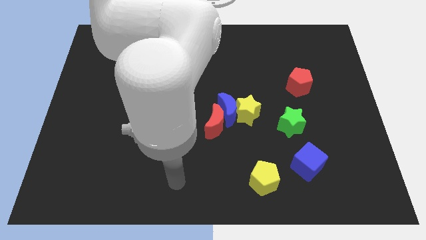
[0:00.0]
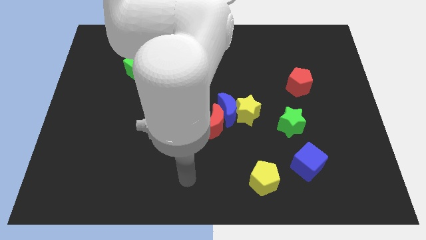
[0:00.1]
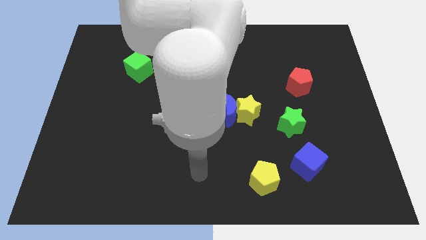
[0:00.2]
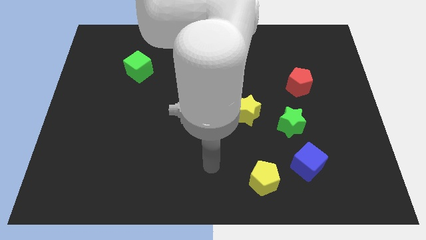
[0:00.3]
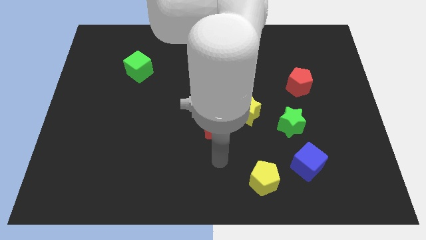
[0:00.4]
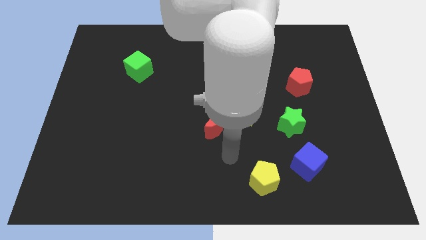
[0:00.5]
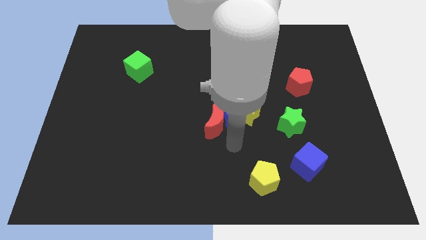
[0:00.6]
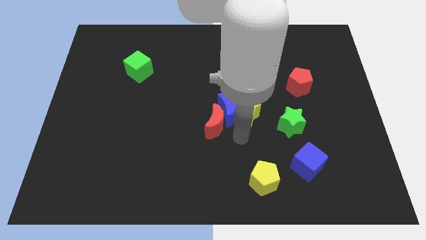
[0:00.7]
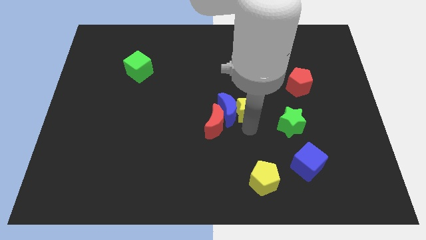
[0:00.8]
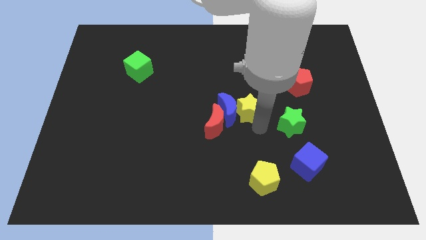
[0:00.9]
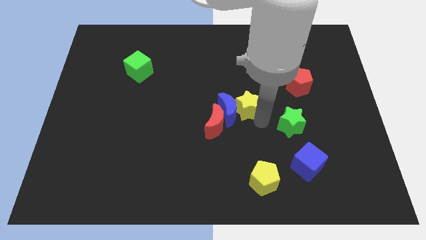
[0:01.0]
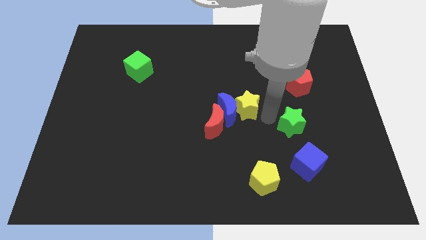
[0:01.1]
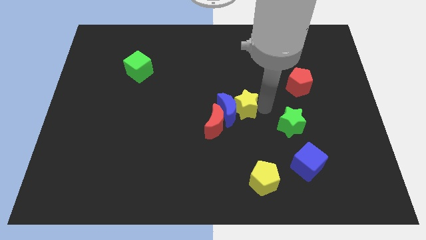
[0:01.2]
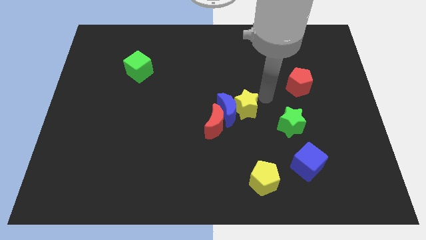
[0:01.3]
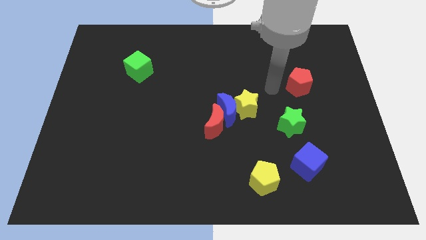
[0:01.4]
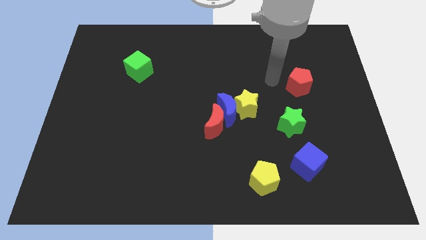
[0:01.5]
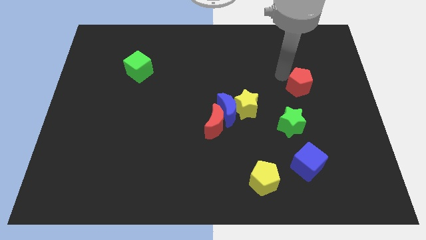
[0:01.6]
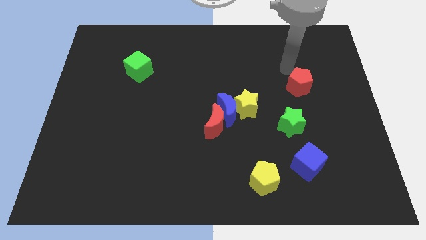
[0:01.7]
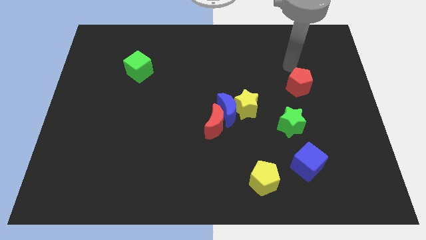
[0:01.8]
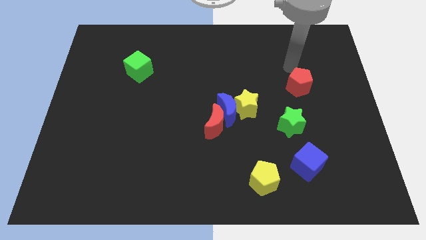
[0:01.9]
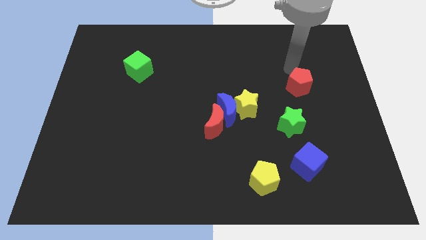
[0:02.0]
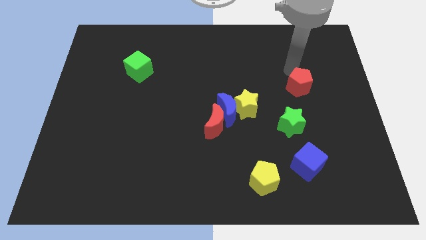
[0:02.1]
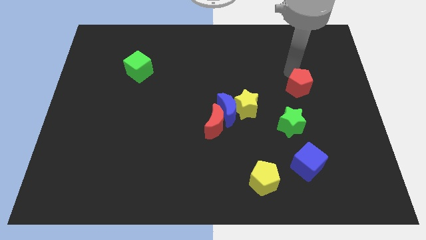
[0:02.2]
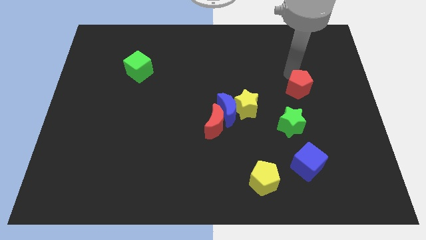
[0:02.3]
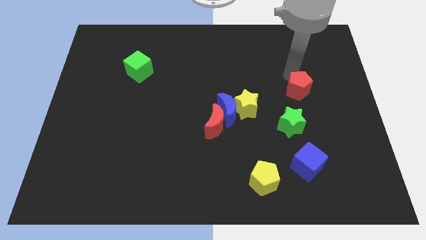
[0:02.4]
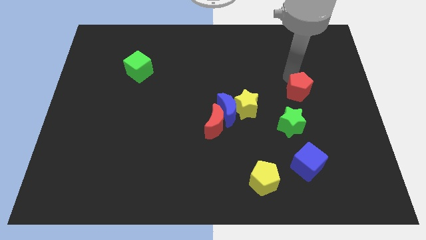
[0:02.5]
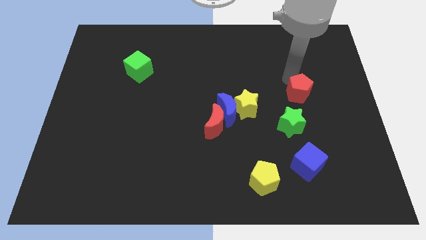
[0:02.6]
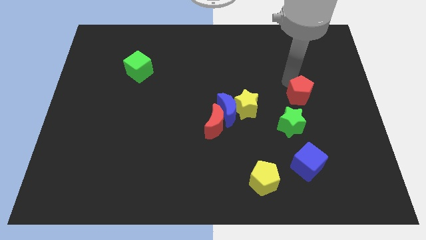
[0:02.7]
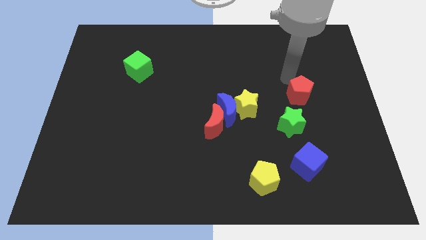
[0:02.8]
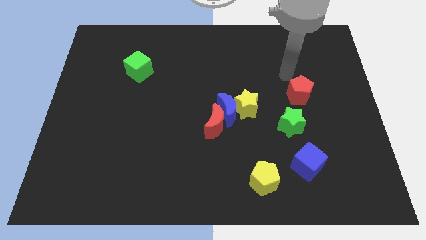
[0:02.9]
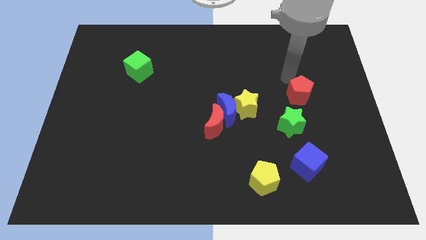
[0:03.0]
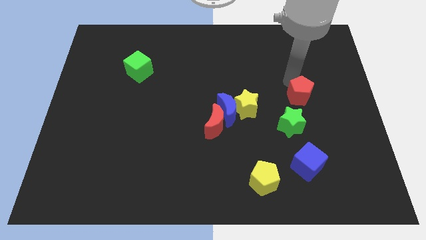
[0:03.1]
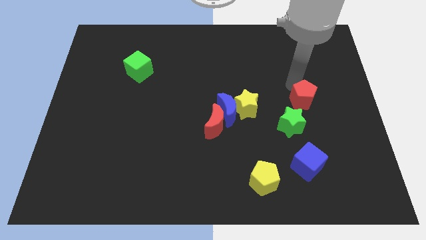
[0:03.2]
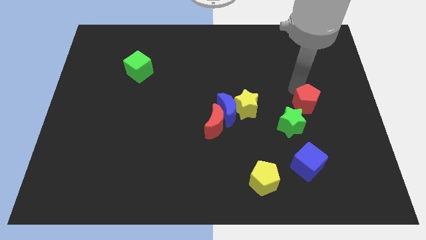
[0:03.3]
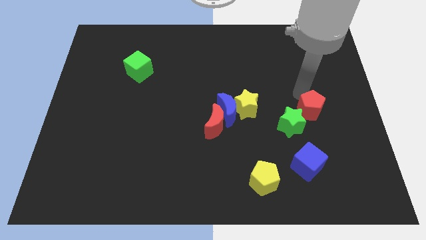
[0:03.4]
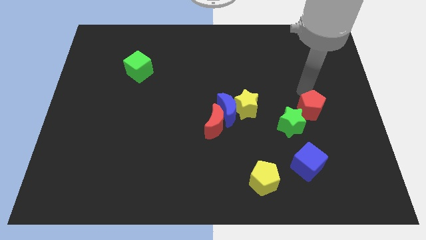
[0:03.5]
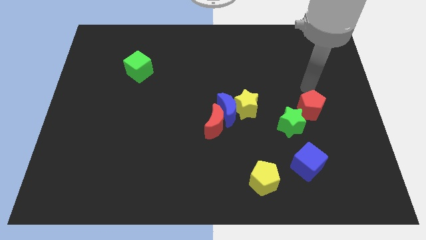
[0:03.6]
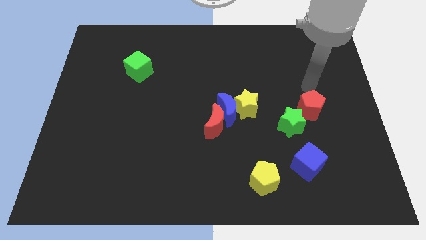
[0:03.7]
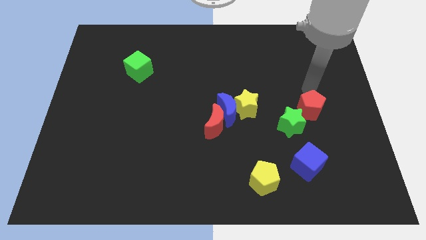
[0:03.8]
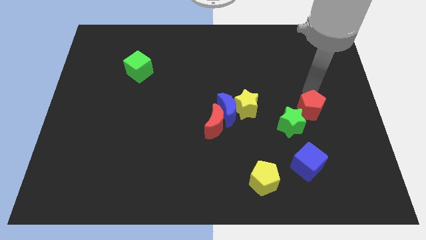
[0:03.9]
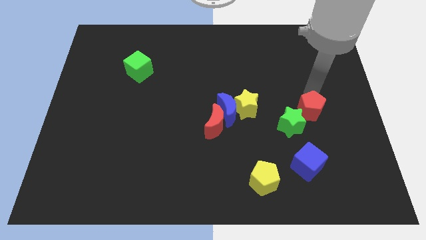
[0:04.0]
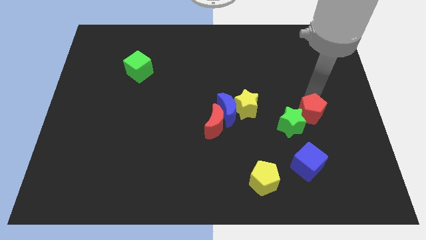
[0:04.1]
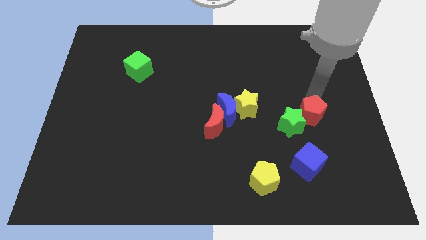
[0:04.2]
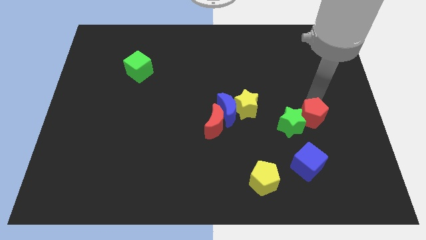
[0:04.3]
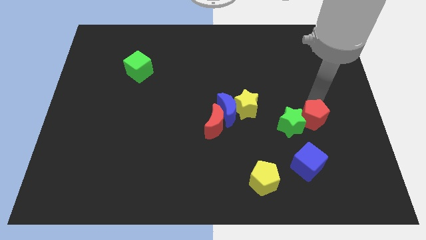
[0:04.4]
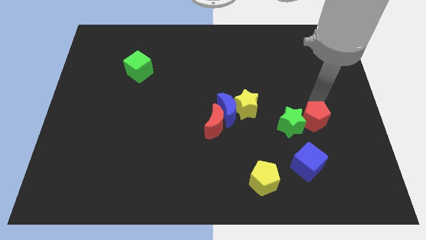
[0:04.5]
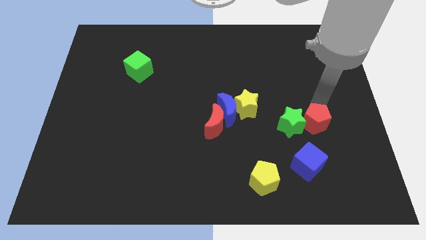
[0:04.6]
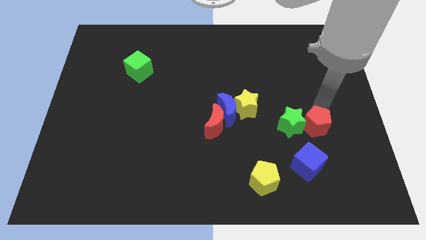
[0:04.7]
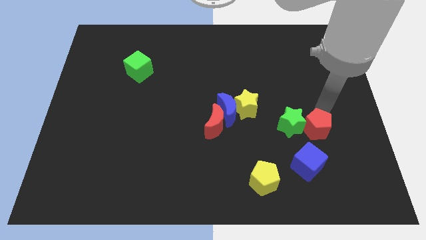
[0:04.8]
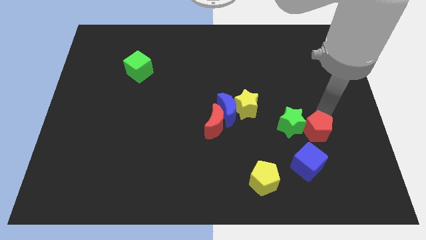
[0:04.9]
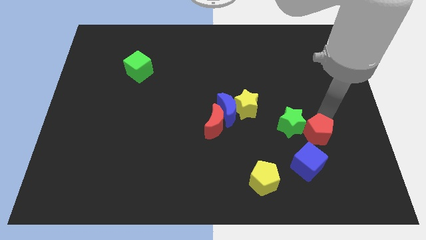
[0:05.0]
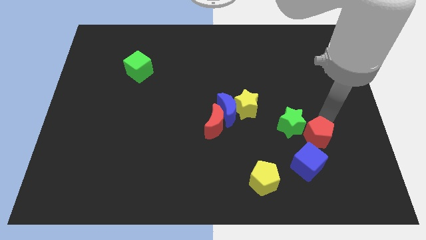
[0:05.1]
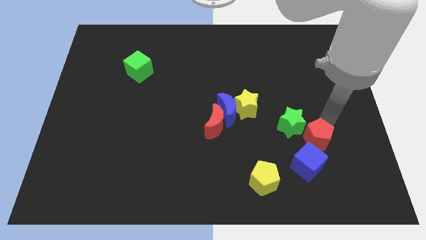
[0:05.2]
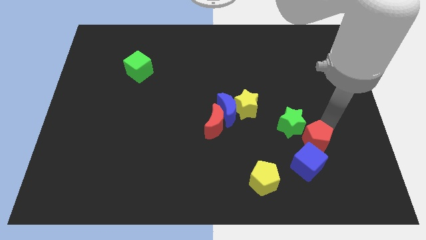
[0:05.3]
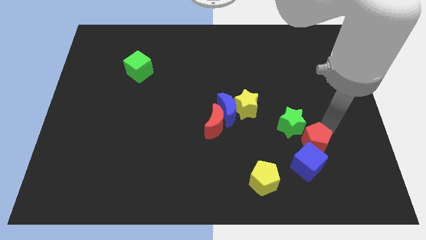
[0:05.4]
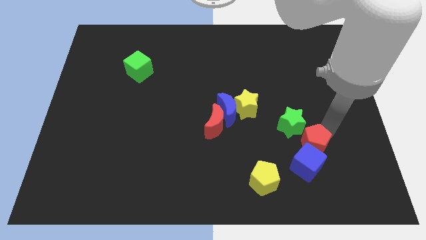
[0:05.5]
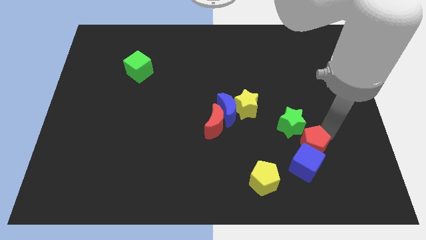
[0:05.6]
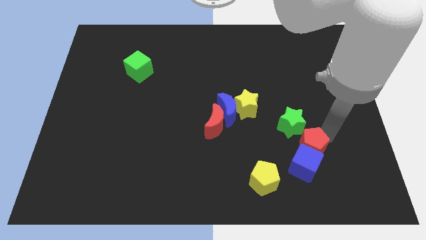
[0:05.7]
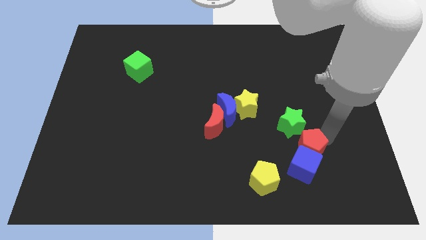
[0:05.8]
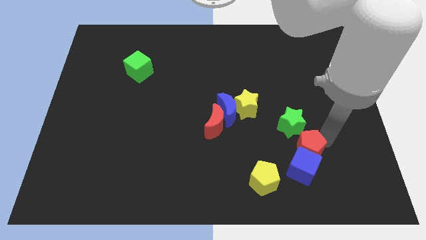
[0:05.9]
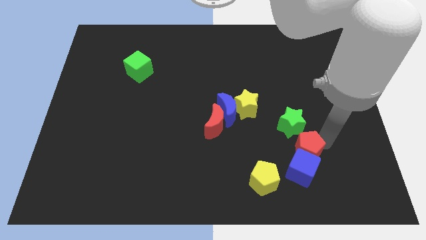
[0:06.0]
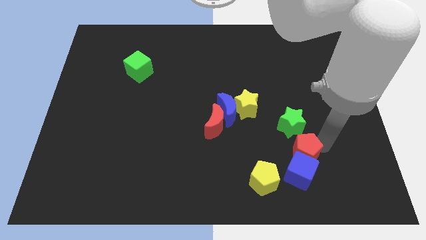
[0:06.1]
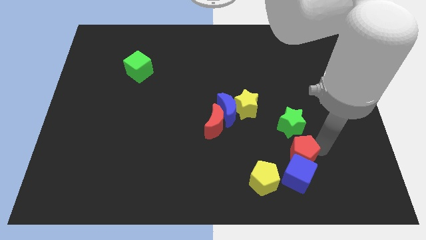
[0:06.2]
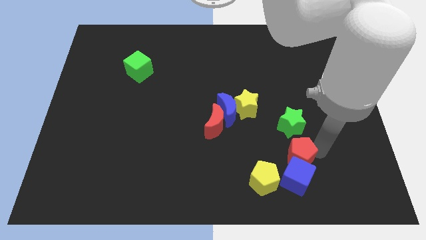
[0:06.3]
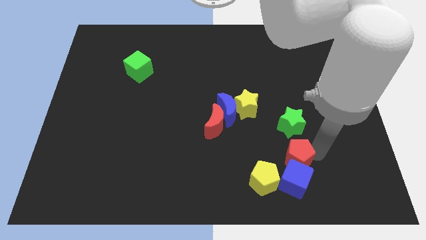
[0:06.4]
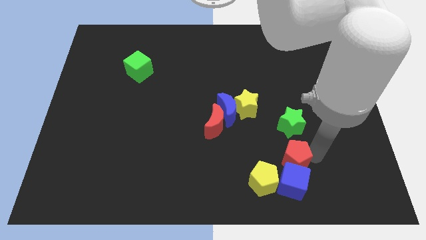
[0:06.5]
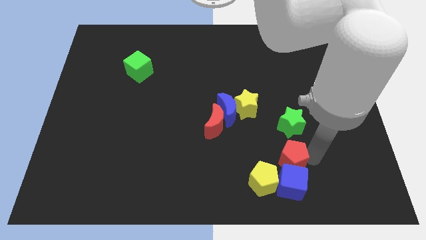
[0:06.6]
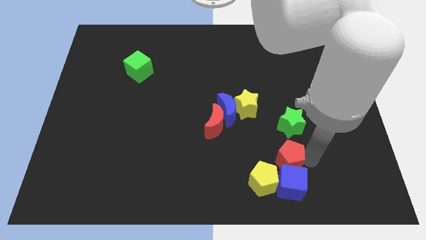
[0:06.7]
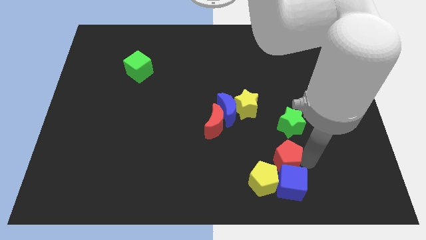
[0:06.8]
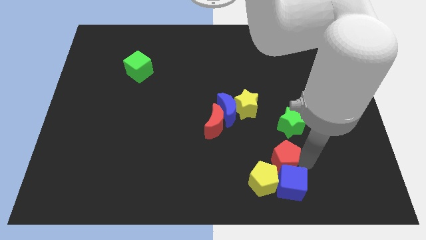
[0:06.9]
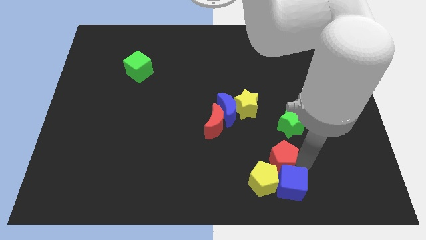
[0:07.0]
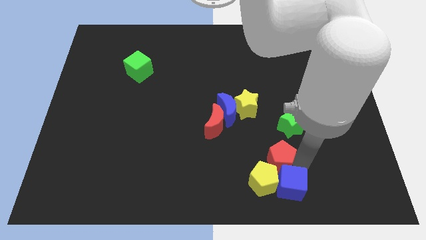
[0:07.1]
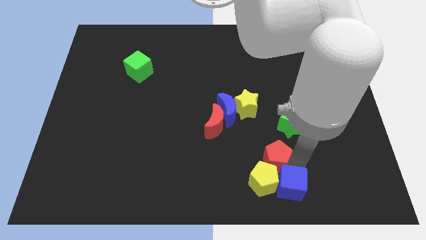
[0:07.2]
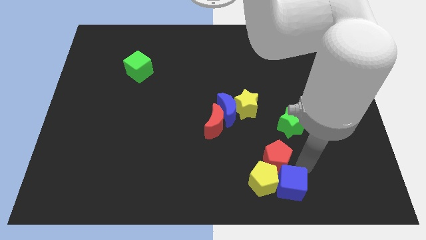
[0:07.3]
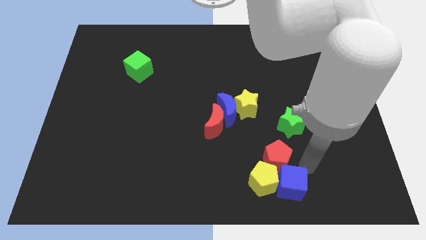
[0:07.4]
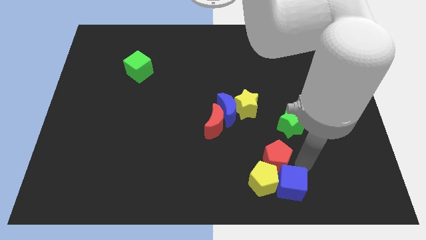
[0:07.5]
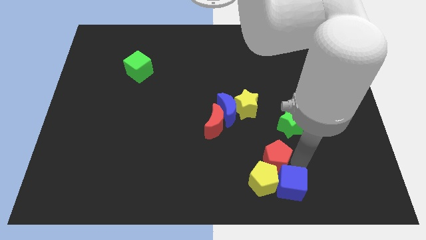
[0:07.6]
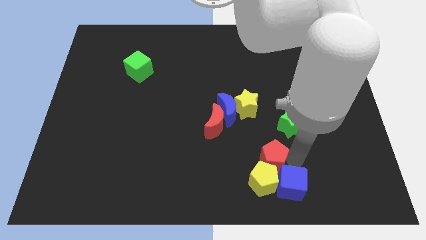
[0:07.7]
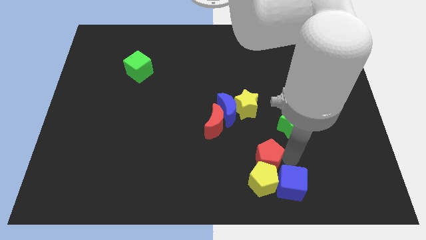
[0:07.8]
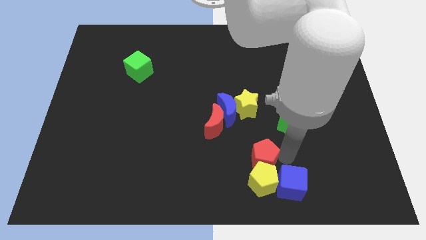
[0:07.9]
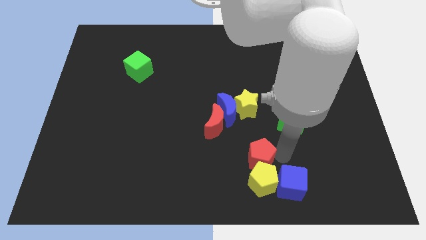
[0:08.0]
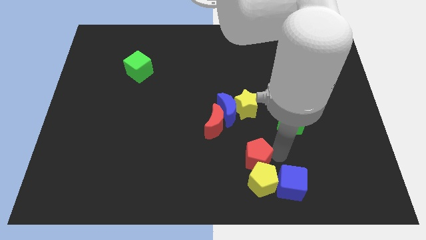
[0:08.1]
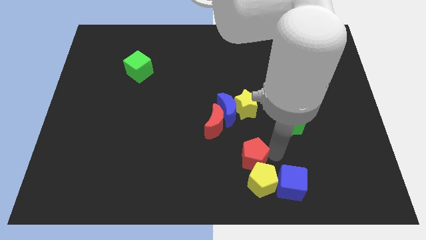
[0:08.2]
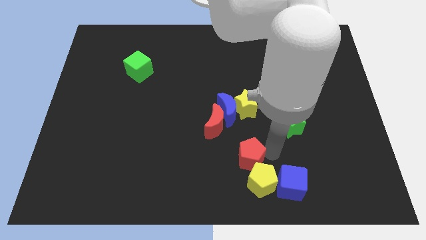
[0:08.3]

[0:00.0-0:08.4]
push the red pentagon below the blue moon
